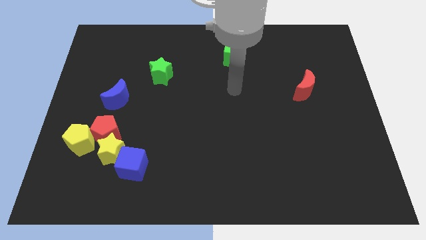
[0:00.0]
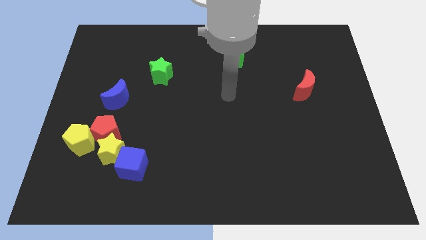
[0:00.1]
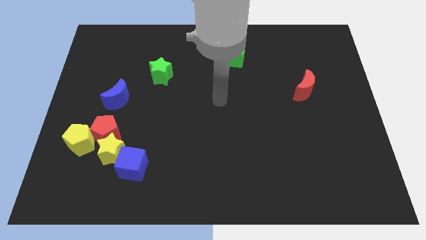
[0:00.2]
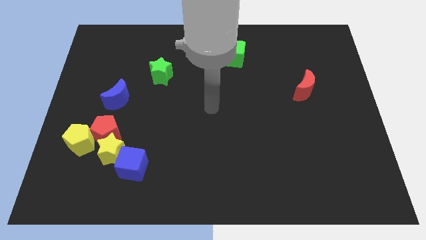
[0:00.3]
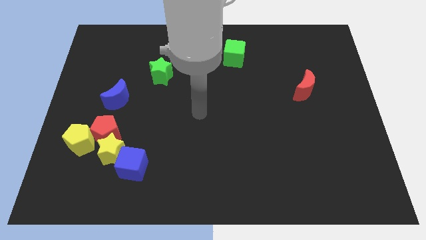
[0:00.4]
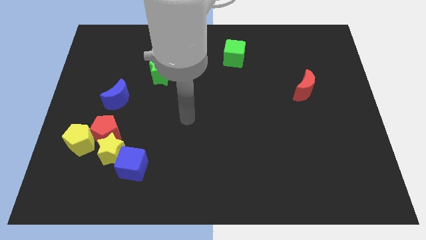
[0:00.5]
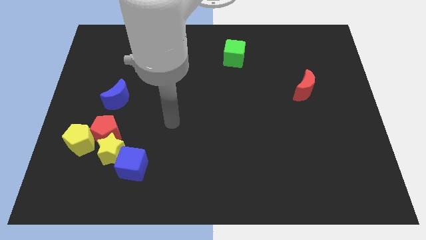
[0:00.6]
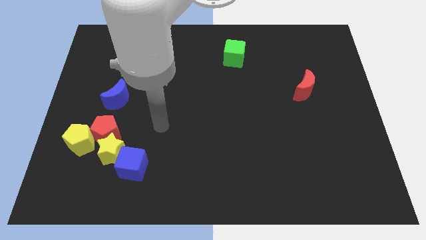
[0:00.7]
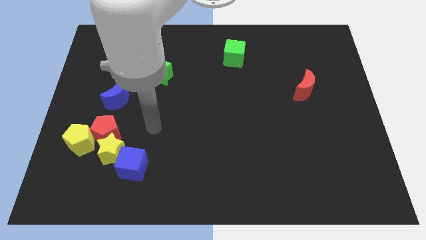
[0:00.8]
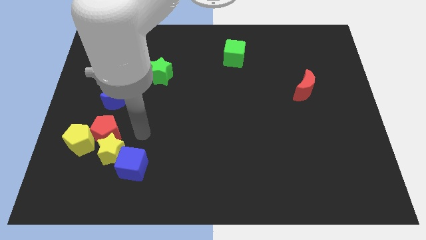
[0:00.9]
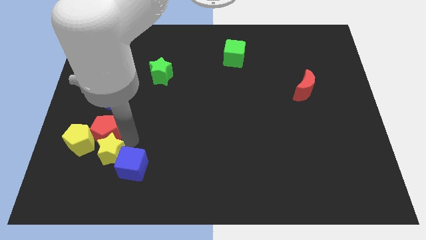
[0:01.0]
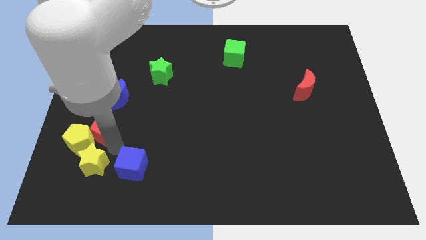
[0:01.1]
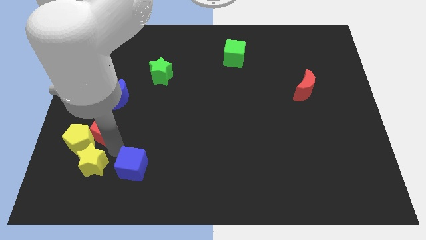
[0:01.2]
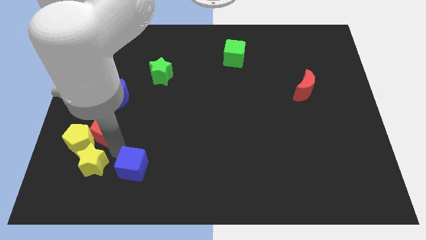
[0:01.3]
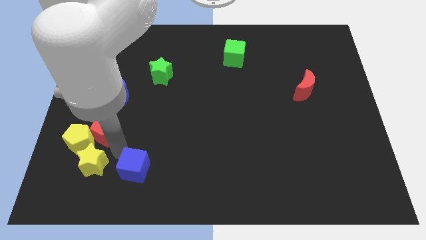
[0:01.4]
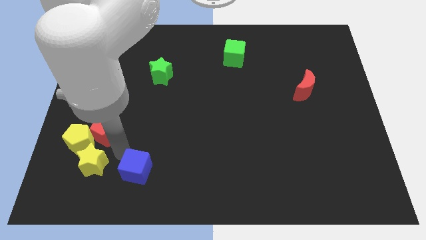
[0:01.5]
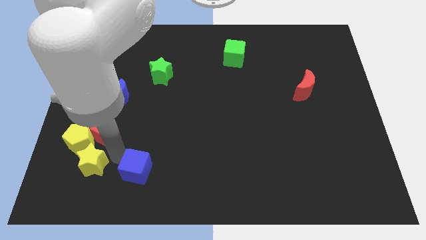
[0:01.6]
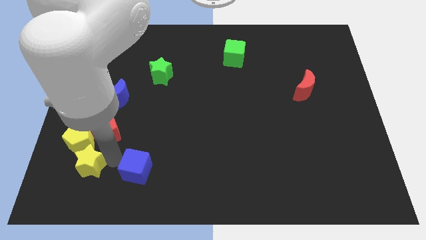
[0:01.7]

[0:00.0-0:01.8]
move the blue cube away from the yellow star

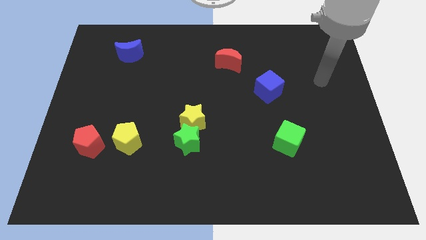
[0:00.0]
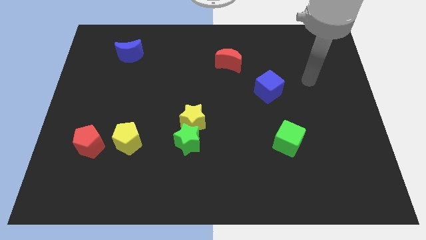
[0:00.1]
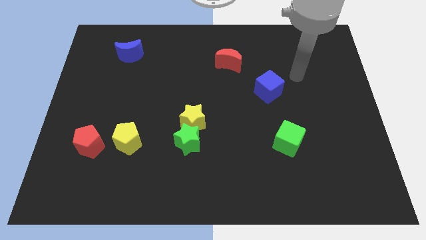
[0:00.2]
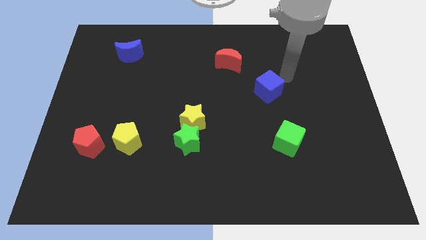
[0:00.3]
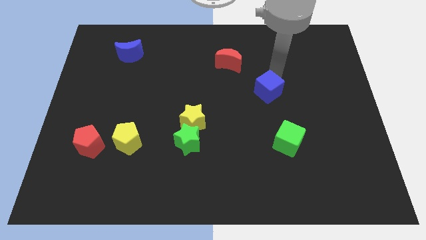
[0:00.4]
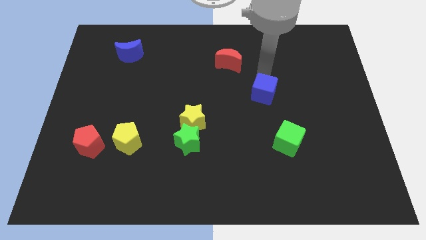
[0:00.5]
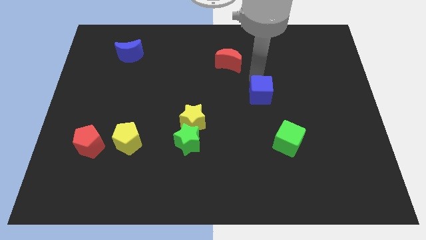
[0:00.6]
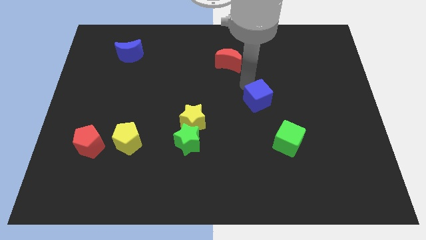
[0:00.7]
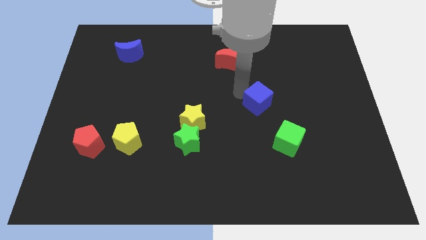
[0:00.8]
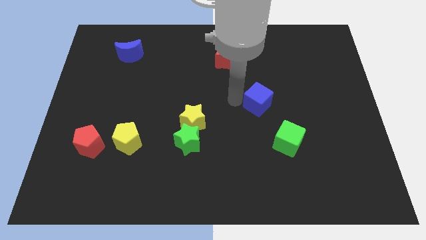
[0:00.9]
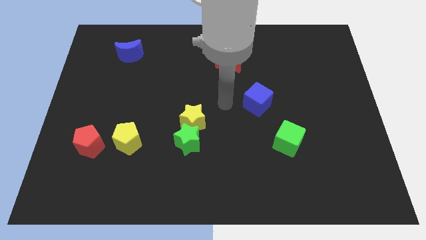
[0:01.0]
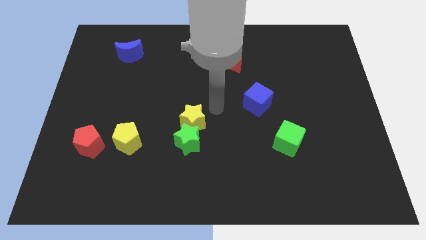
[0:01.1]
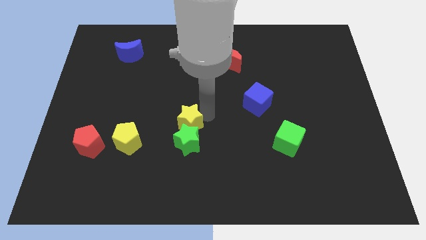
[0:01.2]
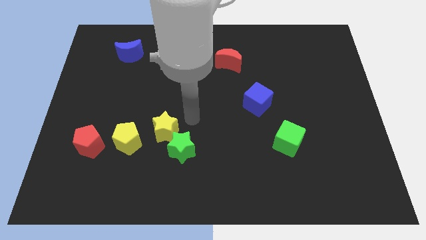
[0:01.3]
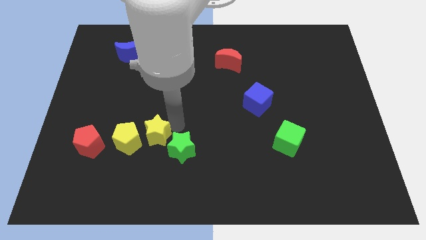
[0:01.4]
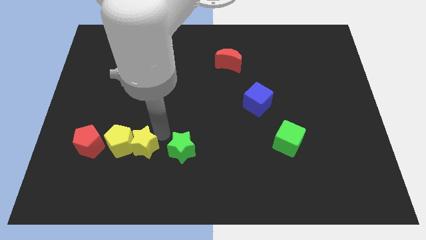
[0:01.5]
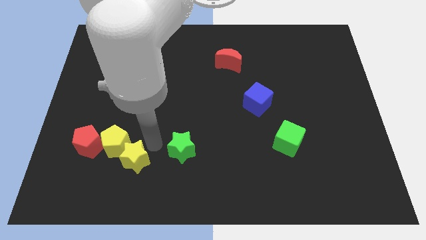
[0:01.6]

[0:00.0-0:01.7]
separate the green star from the yellow star

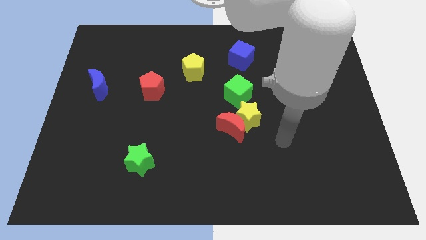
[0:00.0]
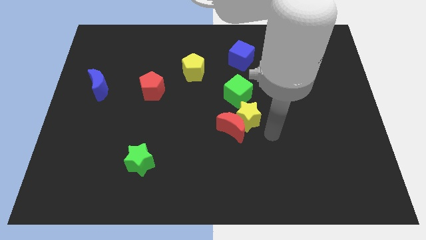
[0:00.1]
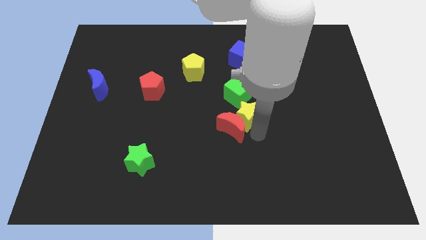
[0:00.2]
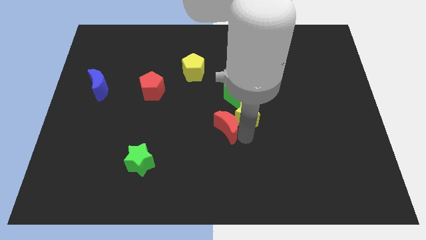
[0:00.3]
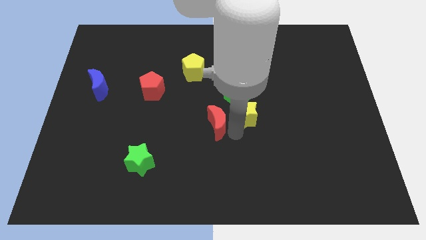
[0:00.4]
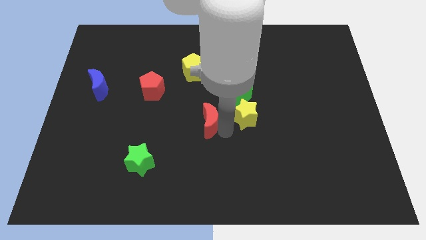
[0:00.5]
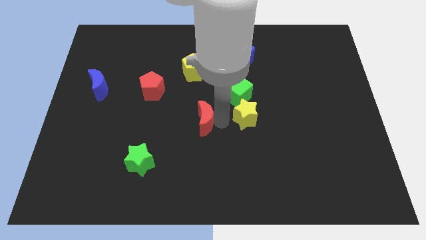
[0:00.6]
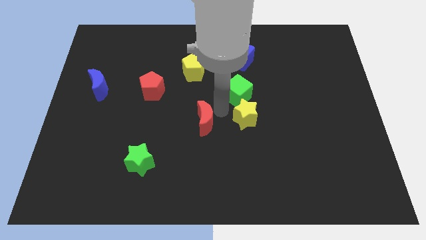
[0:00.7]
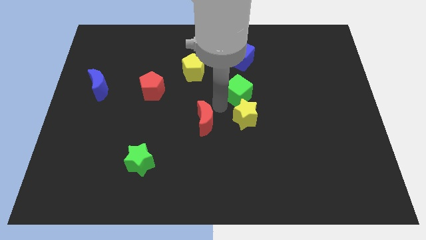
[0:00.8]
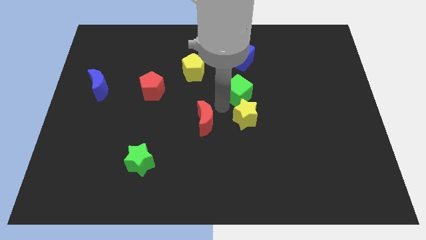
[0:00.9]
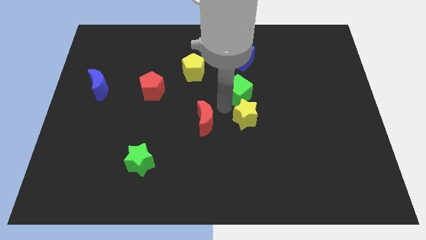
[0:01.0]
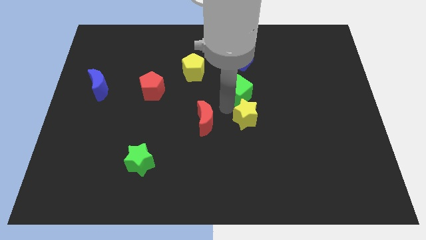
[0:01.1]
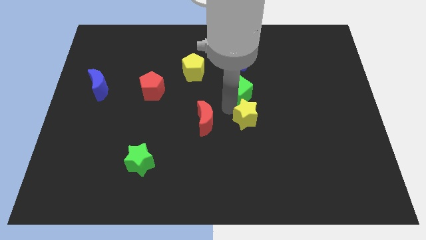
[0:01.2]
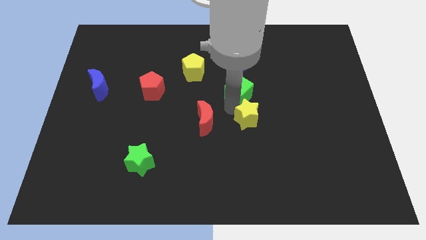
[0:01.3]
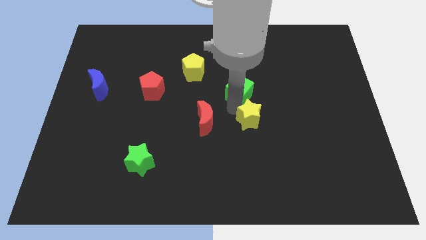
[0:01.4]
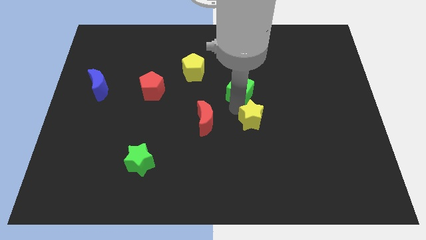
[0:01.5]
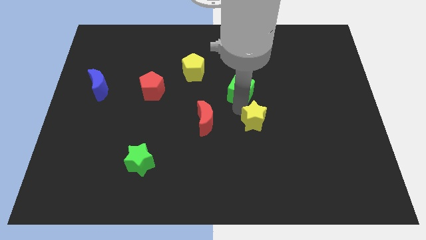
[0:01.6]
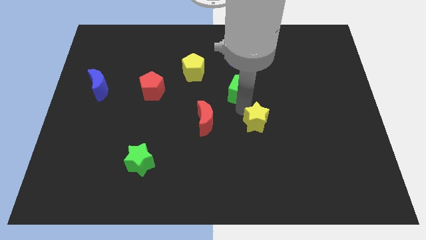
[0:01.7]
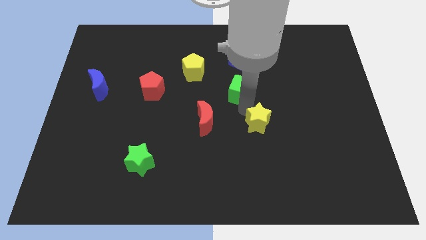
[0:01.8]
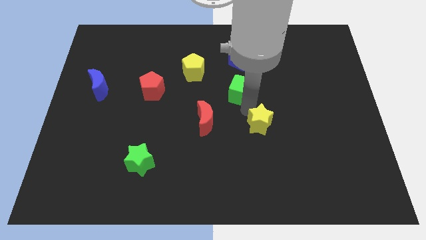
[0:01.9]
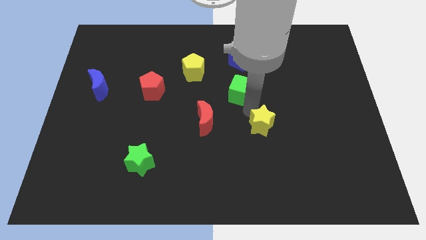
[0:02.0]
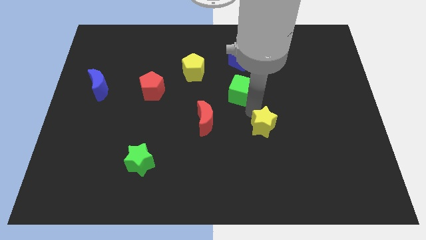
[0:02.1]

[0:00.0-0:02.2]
separate the yellow star from the red moon and green cube

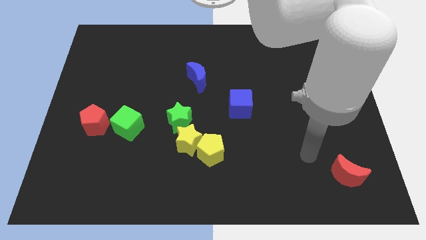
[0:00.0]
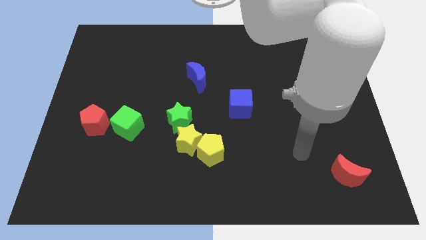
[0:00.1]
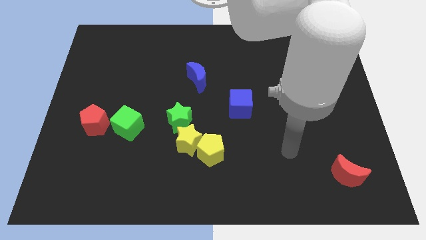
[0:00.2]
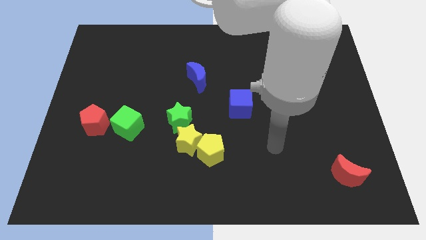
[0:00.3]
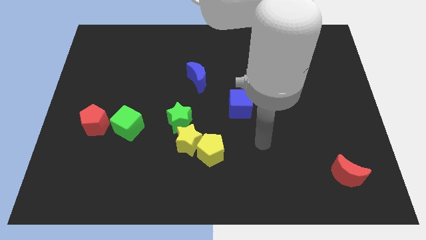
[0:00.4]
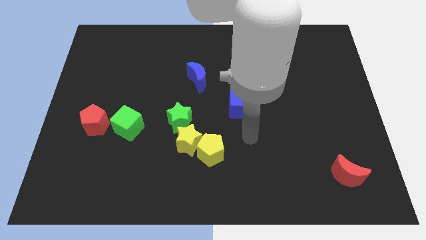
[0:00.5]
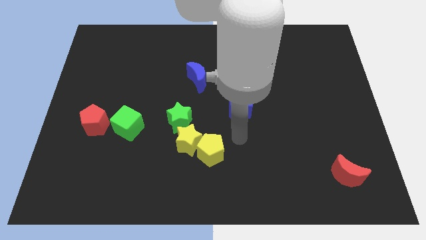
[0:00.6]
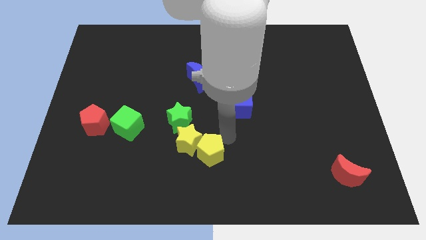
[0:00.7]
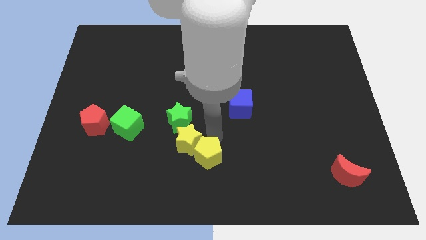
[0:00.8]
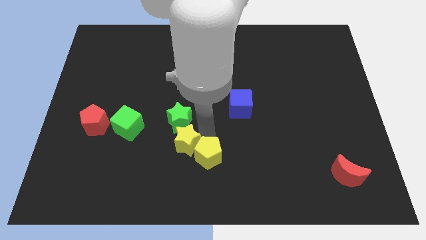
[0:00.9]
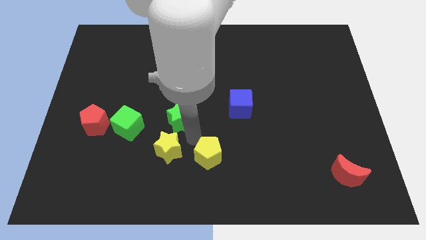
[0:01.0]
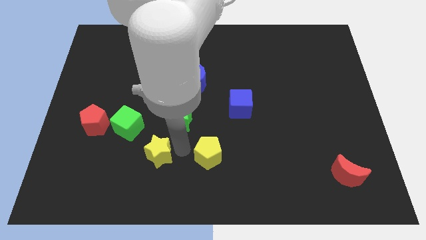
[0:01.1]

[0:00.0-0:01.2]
separate the yellow pentagon from the yellow star

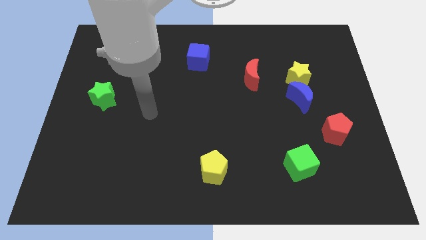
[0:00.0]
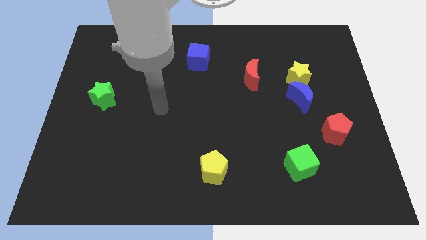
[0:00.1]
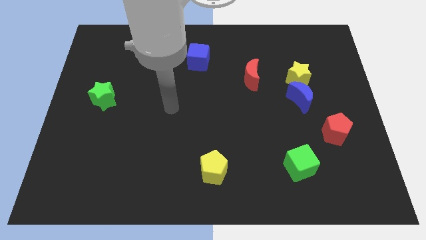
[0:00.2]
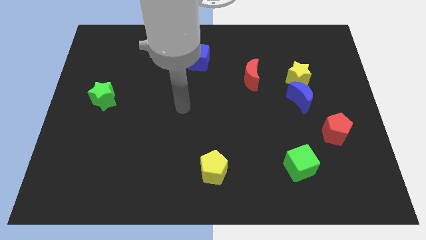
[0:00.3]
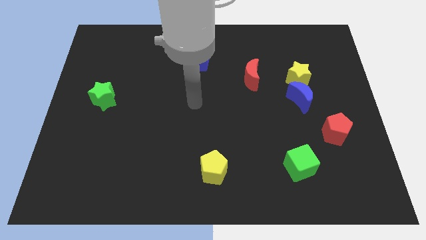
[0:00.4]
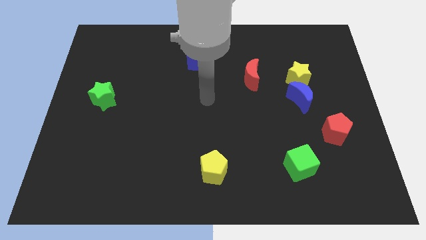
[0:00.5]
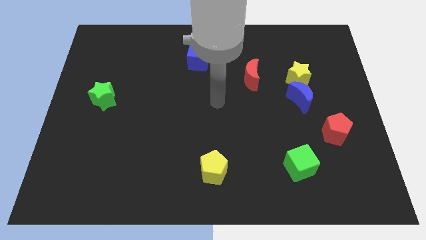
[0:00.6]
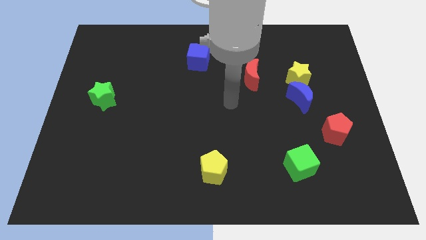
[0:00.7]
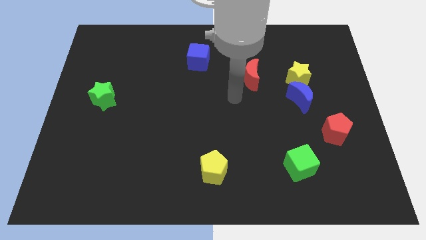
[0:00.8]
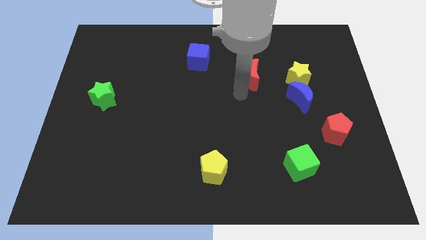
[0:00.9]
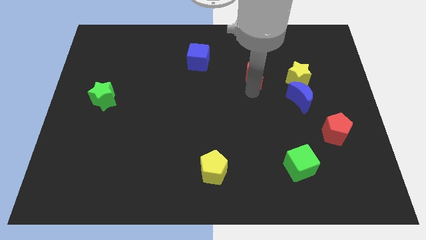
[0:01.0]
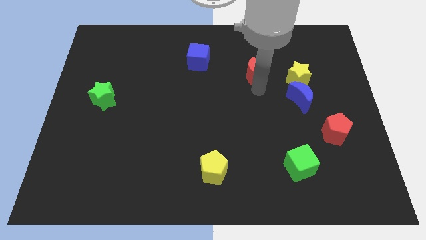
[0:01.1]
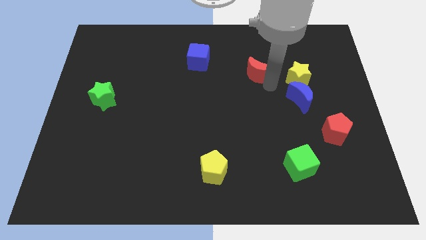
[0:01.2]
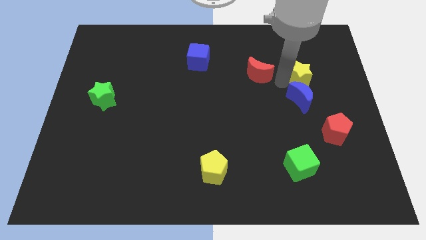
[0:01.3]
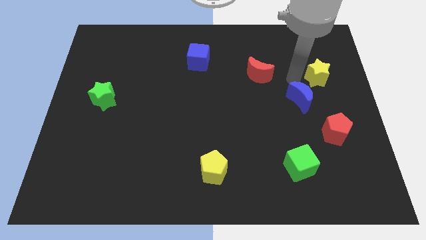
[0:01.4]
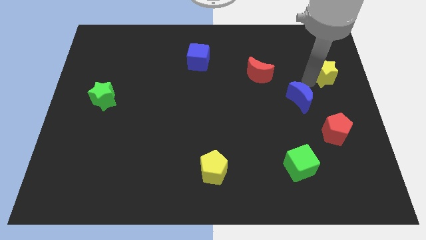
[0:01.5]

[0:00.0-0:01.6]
move the blue moon away from the yellow star

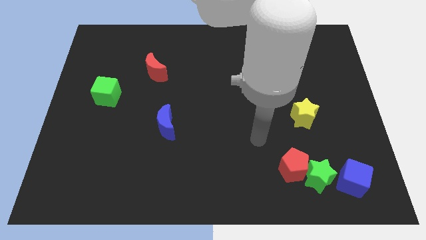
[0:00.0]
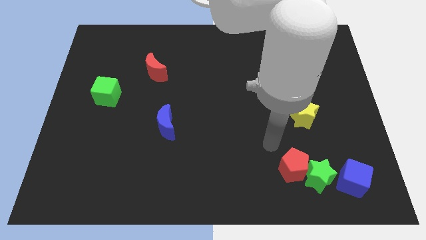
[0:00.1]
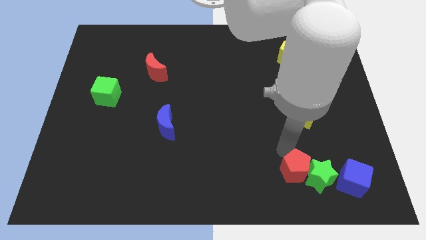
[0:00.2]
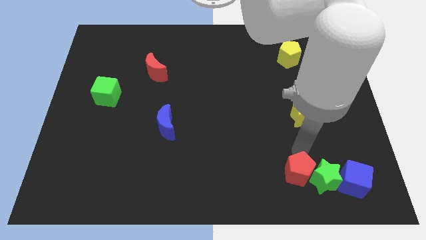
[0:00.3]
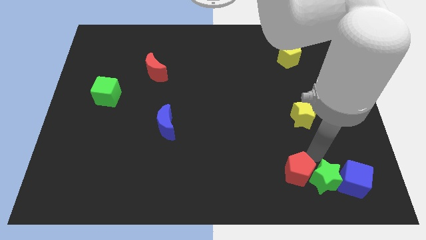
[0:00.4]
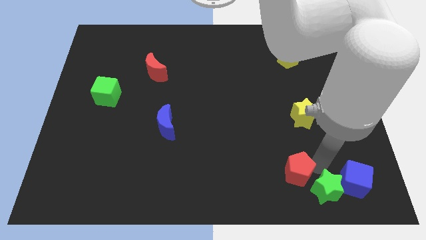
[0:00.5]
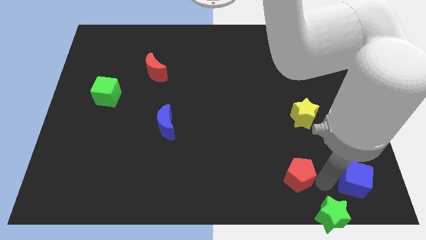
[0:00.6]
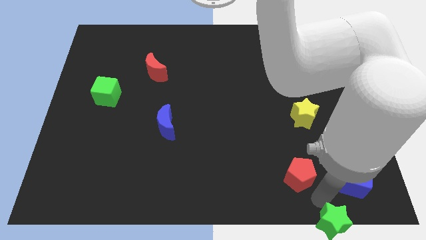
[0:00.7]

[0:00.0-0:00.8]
separate the red pentagon from the green star
